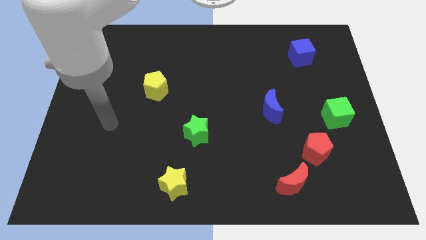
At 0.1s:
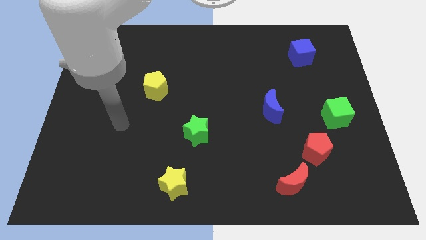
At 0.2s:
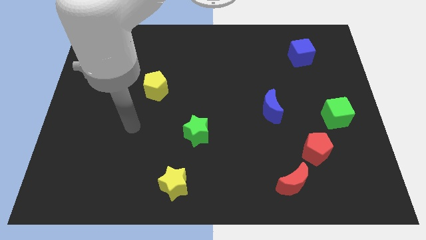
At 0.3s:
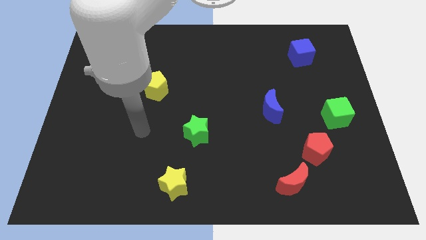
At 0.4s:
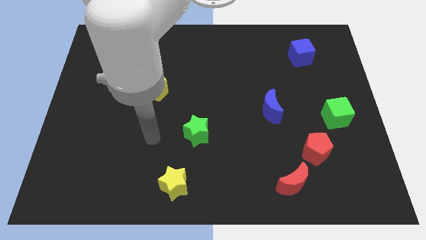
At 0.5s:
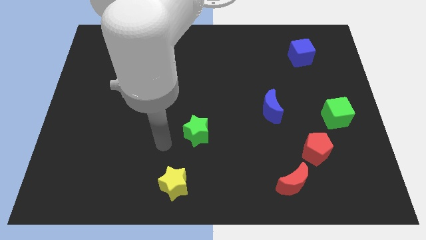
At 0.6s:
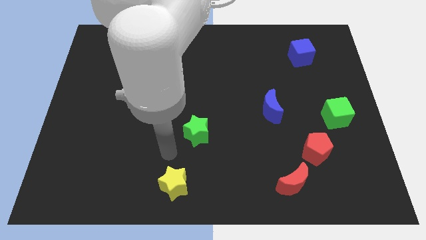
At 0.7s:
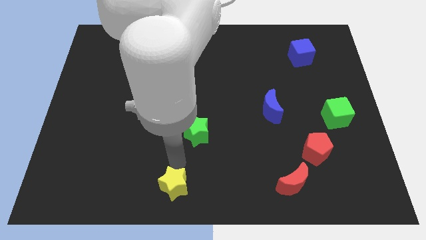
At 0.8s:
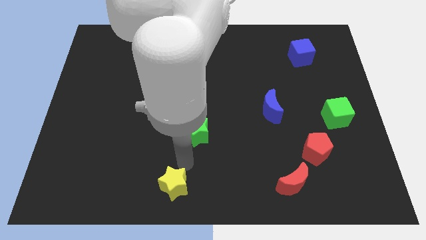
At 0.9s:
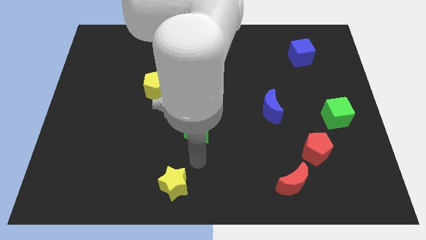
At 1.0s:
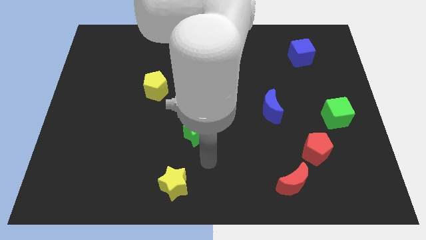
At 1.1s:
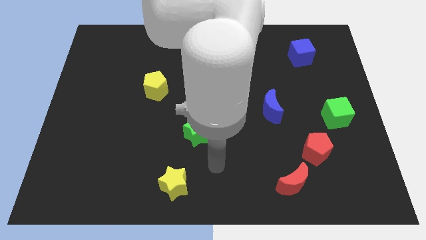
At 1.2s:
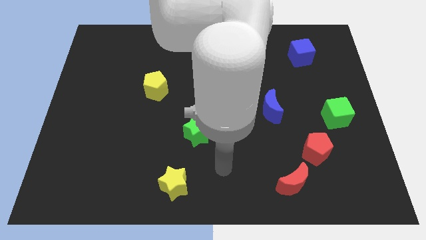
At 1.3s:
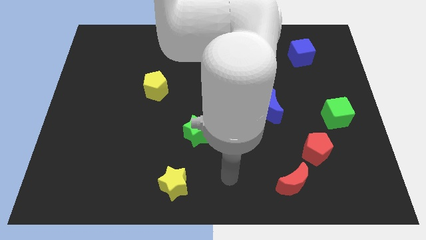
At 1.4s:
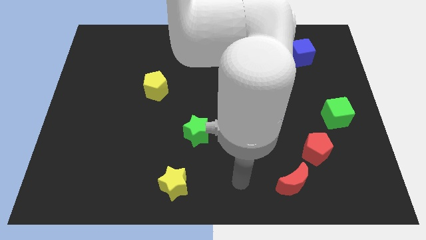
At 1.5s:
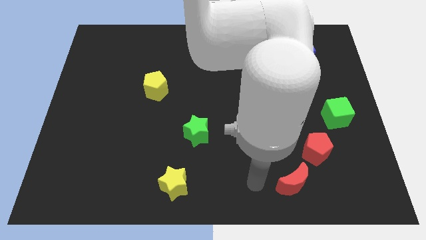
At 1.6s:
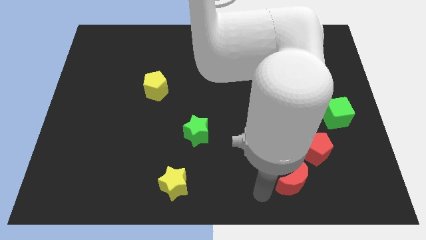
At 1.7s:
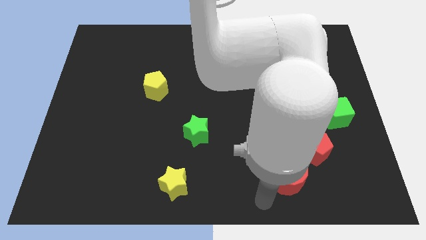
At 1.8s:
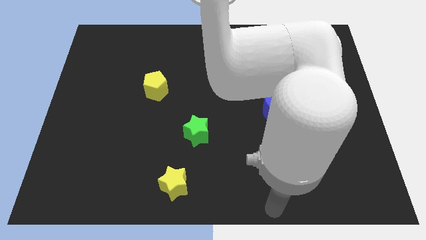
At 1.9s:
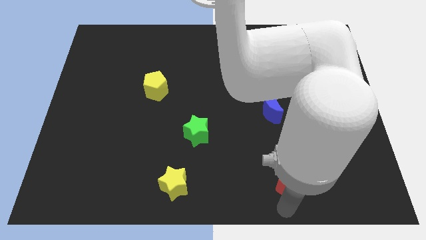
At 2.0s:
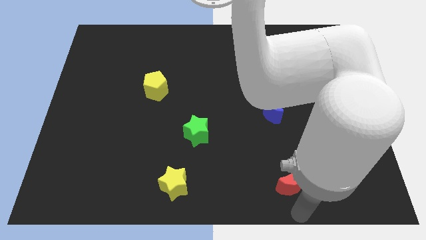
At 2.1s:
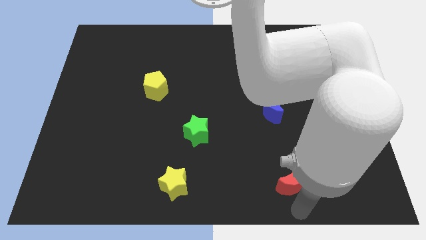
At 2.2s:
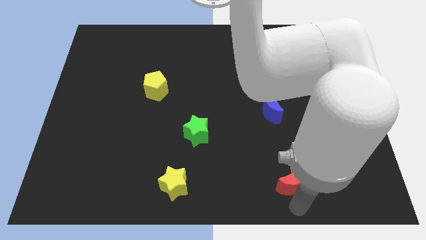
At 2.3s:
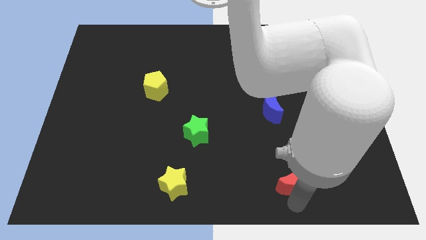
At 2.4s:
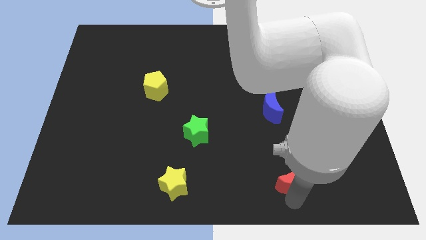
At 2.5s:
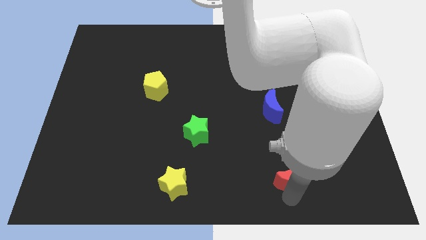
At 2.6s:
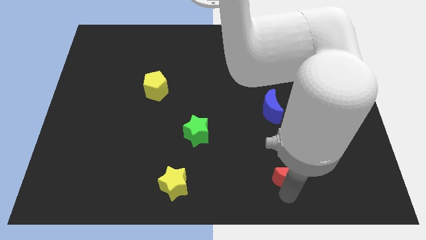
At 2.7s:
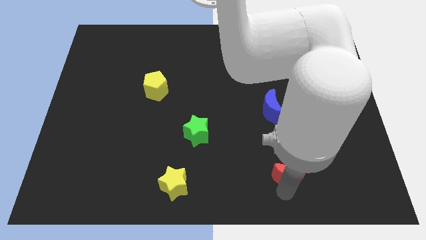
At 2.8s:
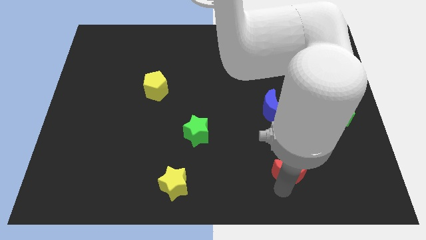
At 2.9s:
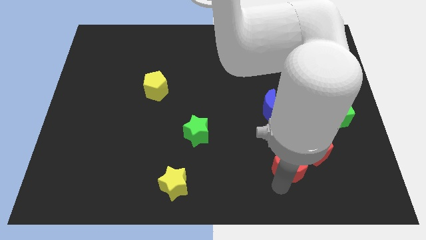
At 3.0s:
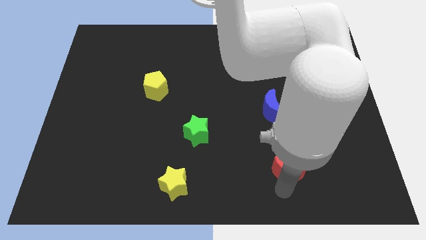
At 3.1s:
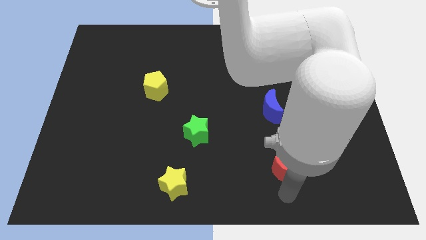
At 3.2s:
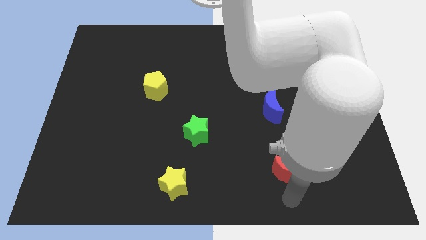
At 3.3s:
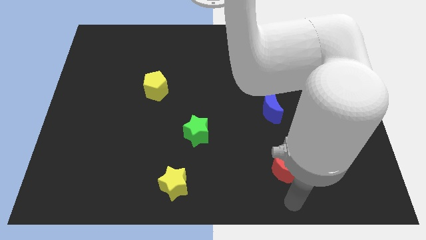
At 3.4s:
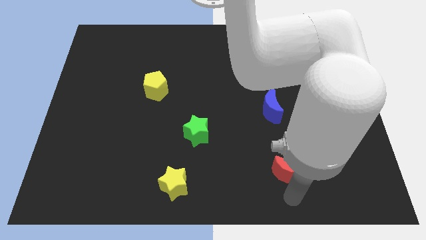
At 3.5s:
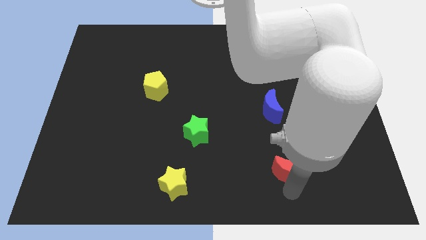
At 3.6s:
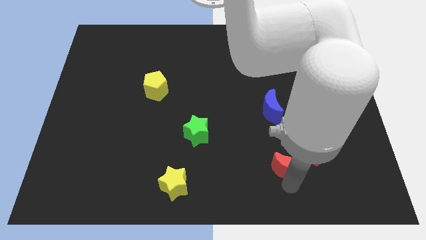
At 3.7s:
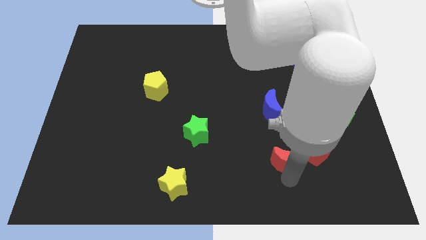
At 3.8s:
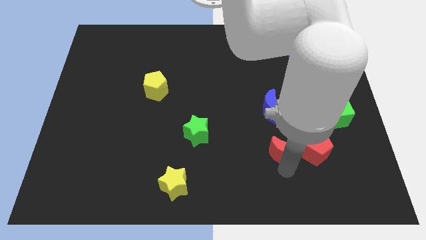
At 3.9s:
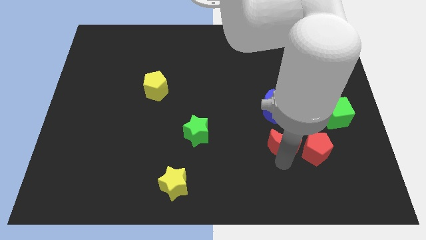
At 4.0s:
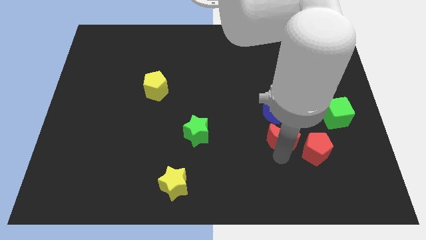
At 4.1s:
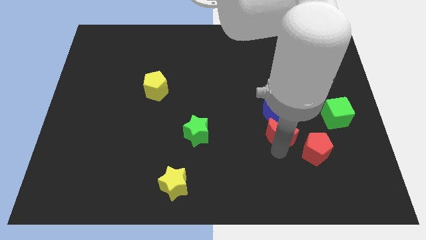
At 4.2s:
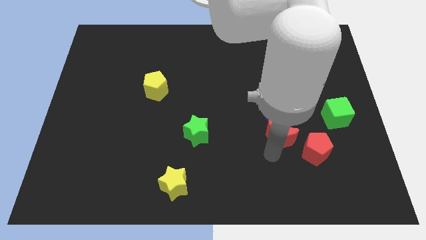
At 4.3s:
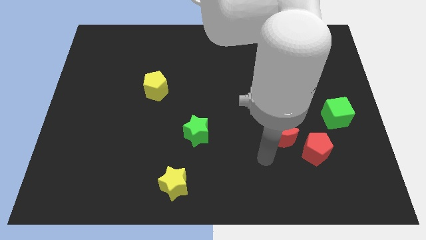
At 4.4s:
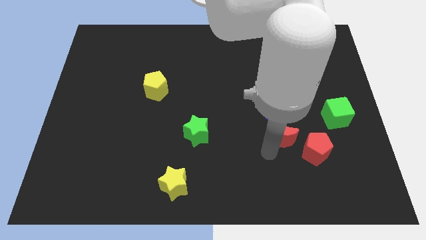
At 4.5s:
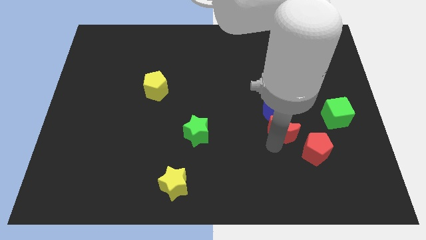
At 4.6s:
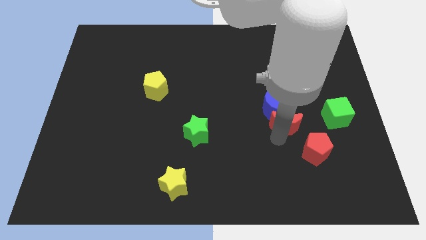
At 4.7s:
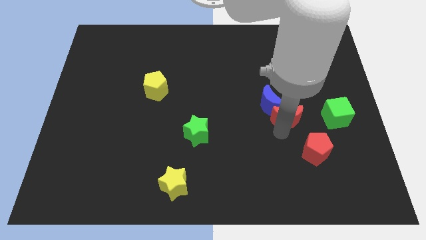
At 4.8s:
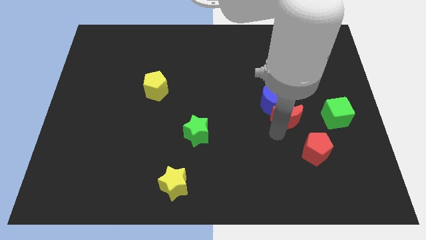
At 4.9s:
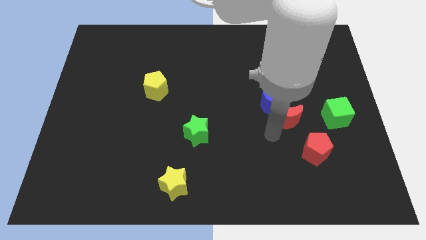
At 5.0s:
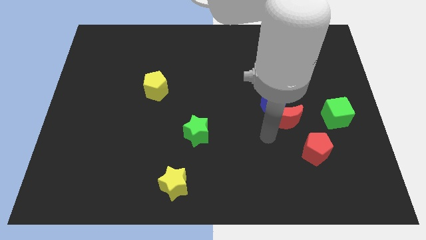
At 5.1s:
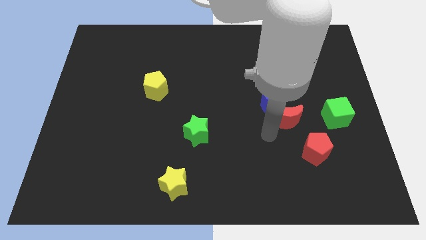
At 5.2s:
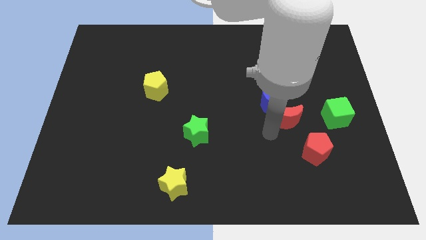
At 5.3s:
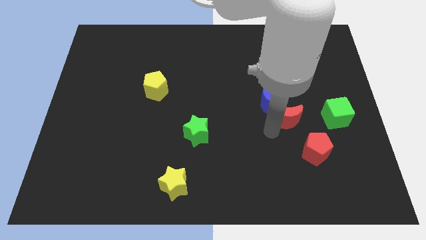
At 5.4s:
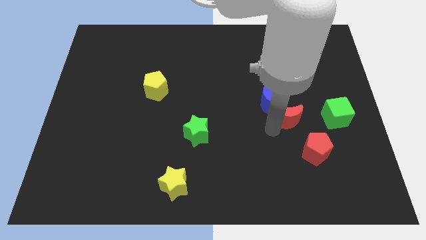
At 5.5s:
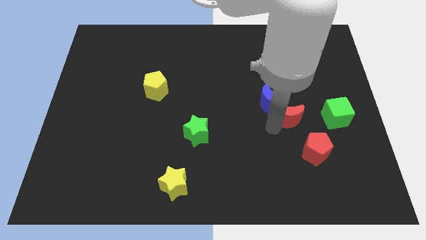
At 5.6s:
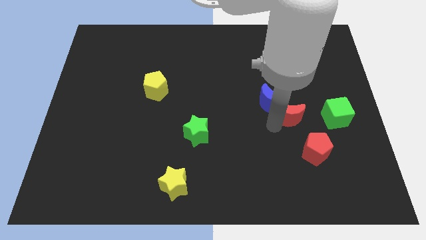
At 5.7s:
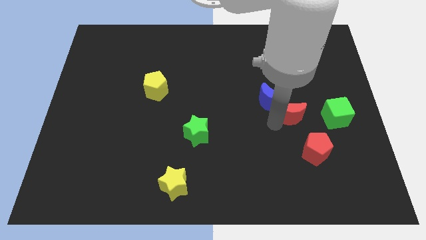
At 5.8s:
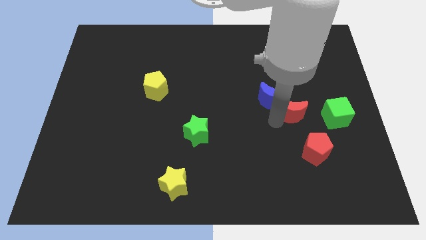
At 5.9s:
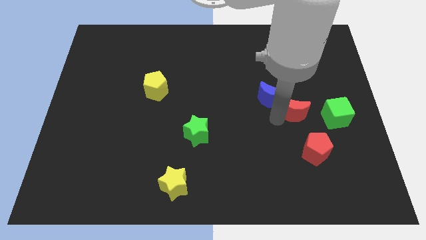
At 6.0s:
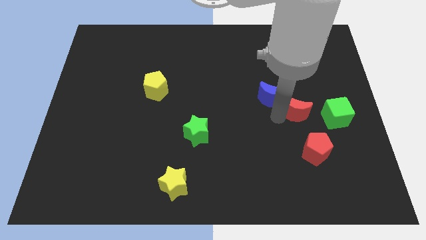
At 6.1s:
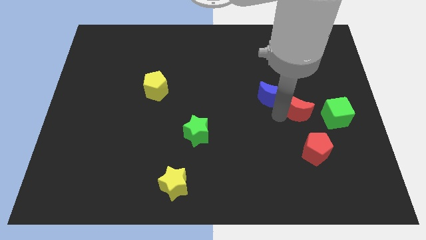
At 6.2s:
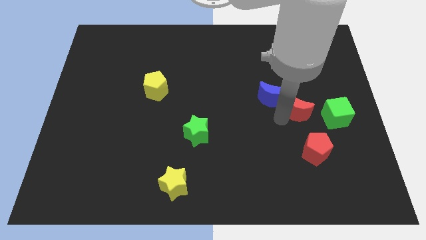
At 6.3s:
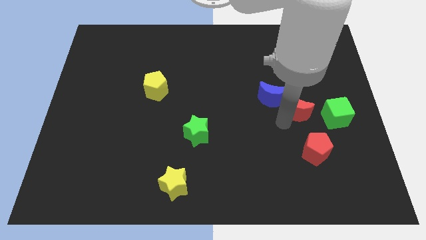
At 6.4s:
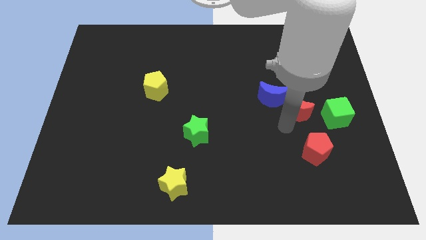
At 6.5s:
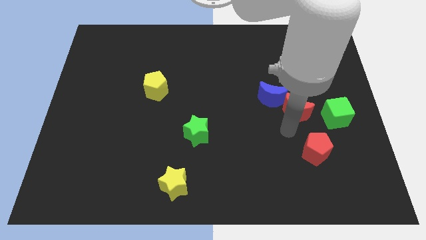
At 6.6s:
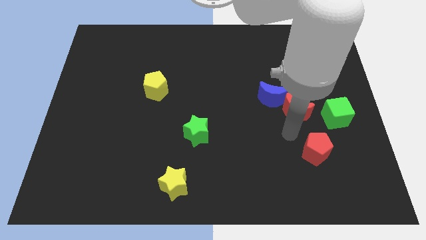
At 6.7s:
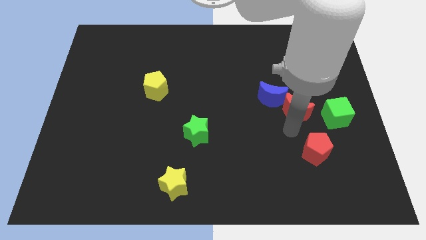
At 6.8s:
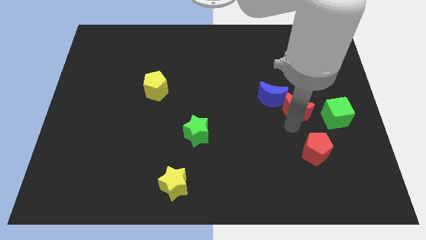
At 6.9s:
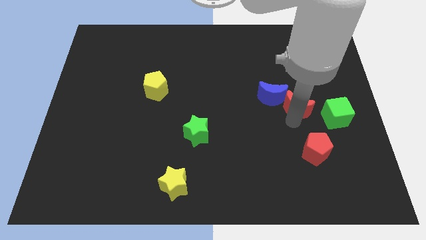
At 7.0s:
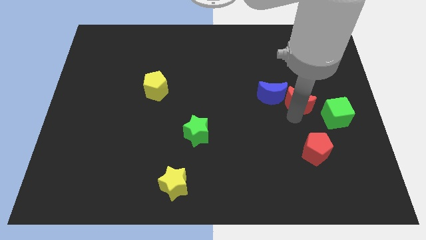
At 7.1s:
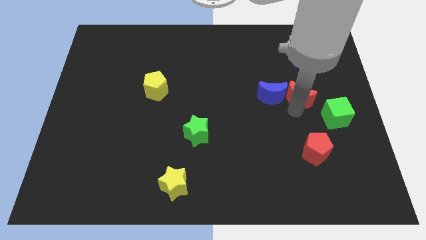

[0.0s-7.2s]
slide the red moon to the bottom side of the blue cube
